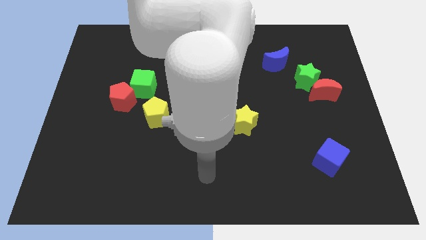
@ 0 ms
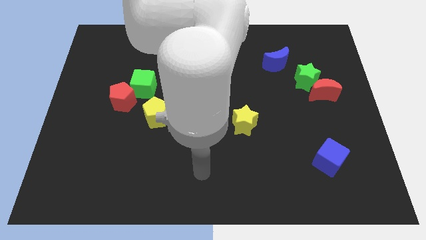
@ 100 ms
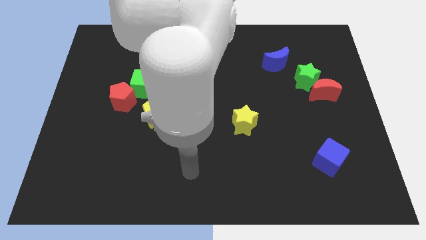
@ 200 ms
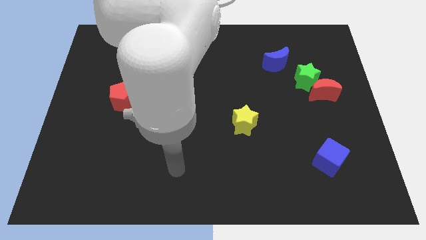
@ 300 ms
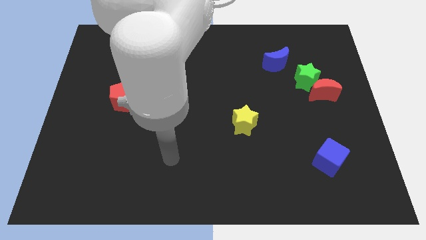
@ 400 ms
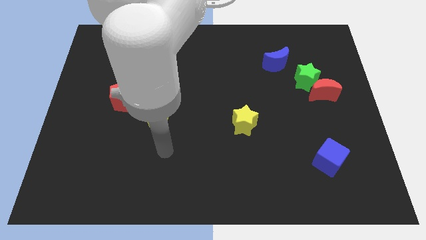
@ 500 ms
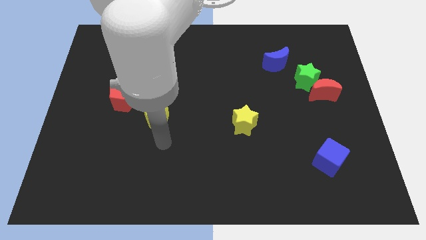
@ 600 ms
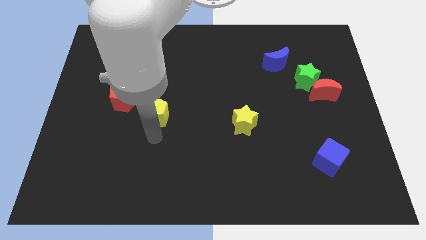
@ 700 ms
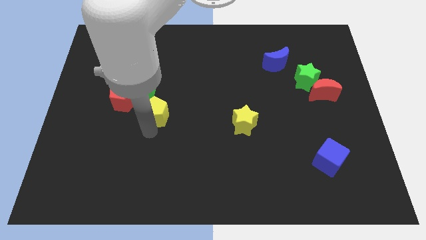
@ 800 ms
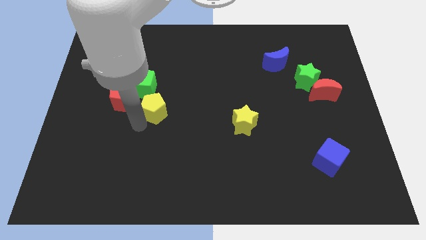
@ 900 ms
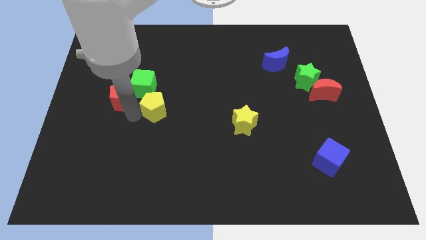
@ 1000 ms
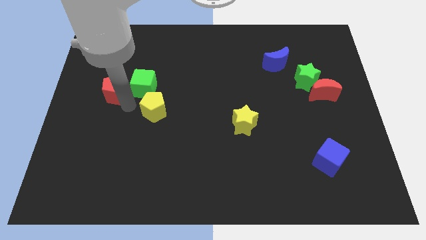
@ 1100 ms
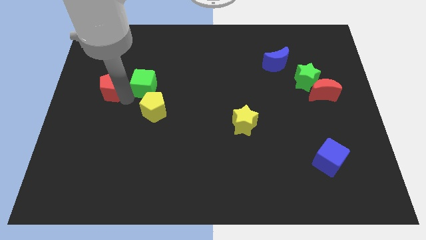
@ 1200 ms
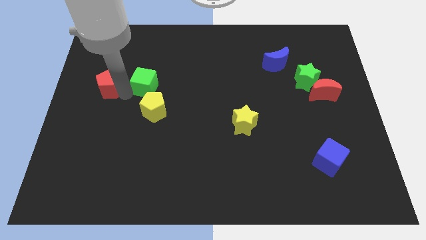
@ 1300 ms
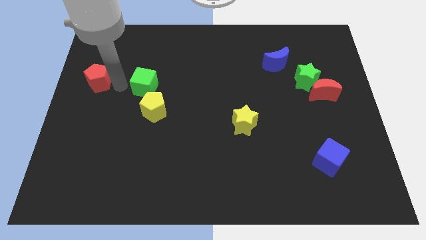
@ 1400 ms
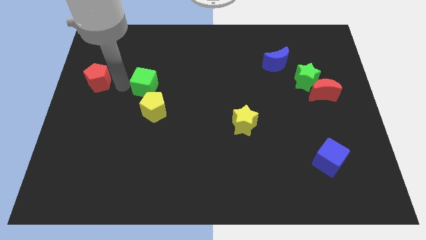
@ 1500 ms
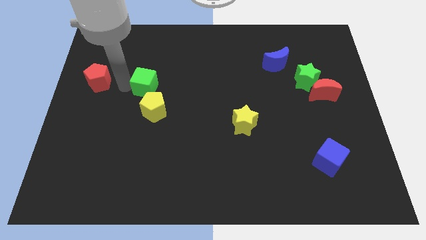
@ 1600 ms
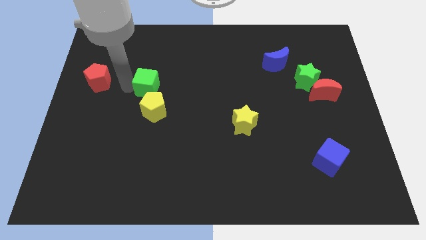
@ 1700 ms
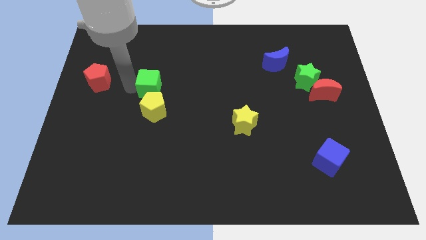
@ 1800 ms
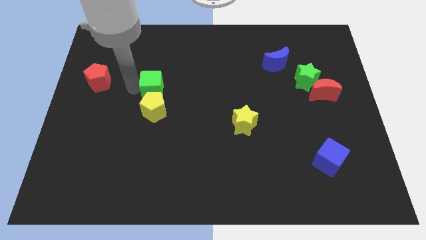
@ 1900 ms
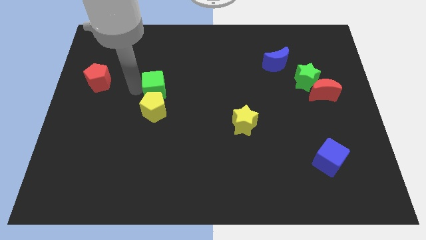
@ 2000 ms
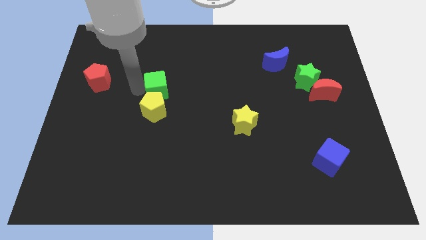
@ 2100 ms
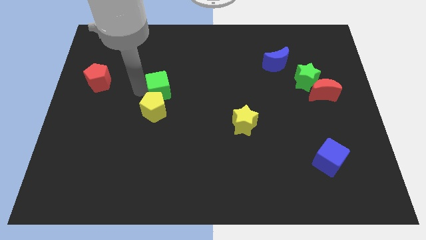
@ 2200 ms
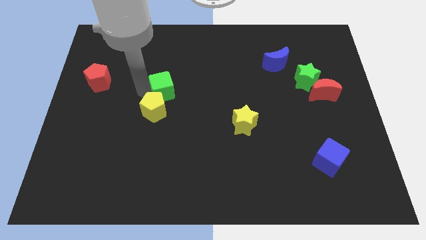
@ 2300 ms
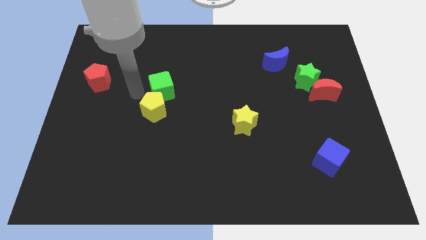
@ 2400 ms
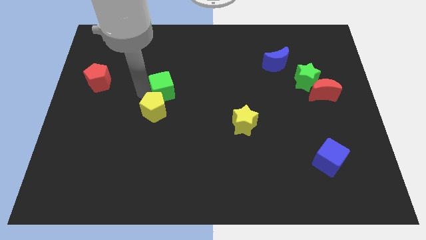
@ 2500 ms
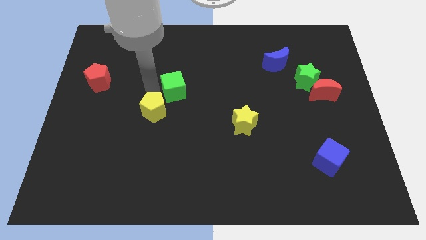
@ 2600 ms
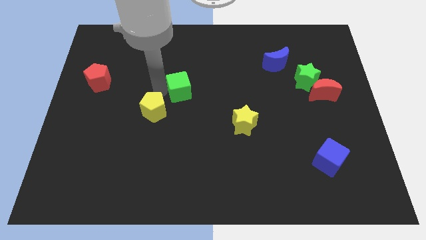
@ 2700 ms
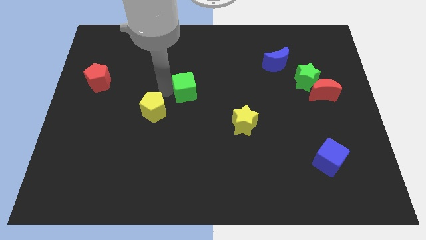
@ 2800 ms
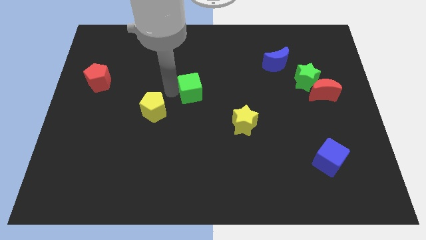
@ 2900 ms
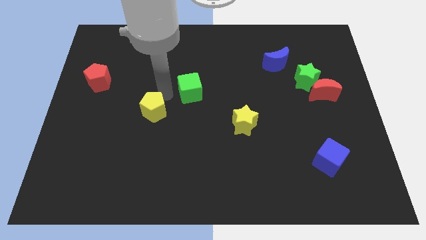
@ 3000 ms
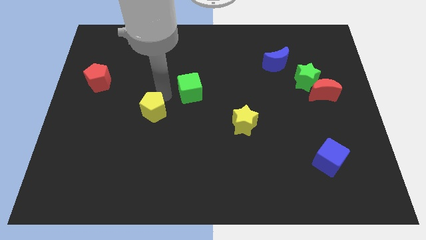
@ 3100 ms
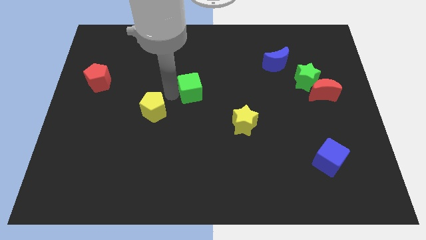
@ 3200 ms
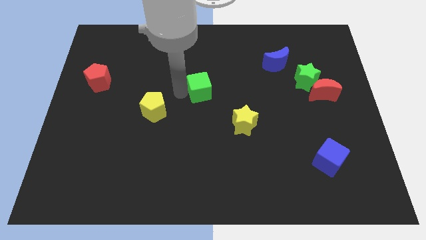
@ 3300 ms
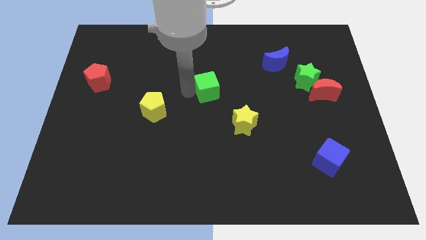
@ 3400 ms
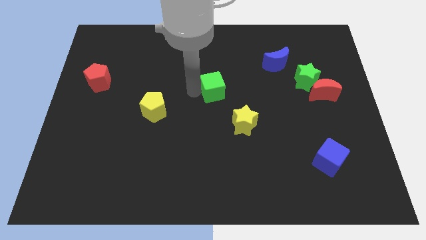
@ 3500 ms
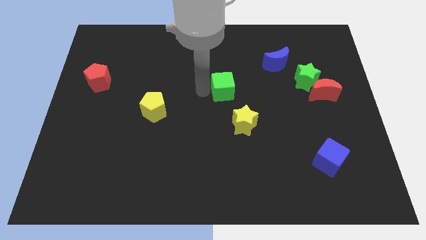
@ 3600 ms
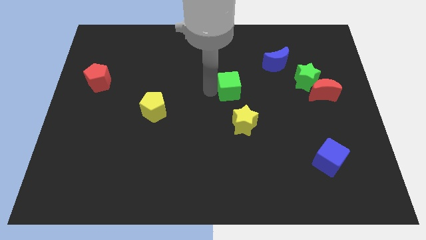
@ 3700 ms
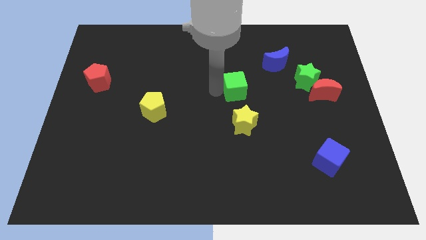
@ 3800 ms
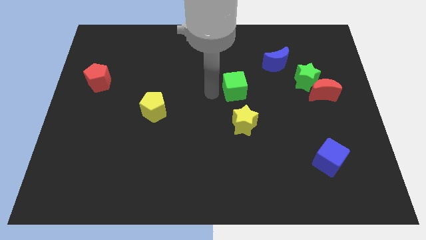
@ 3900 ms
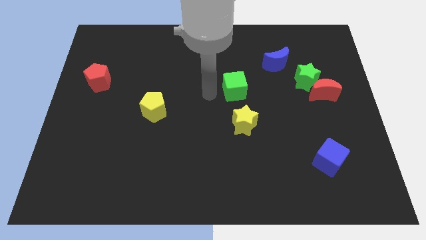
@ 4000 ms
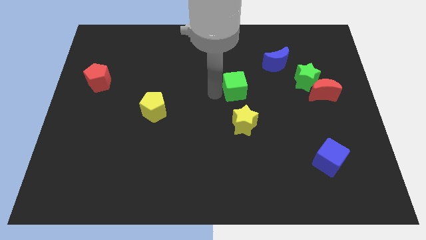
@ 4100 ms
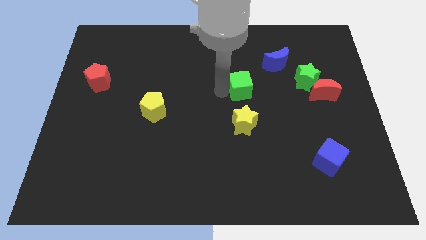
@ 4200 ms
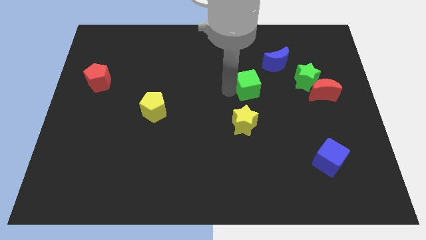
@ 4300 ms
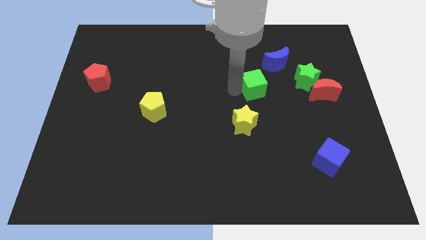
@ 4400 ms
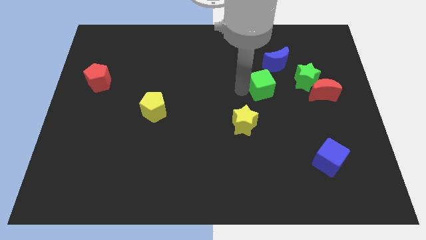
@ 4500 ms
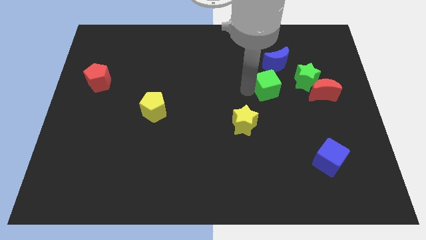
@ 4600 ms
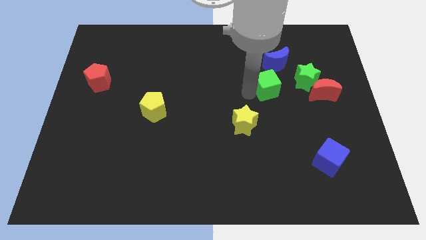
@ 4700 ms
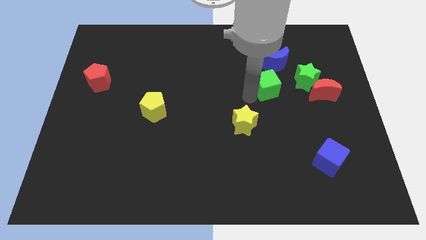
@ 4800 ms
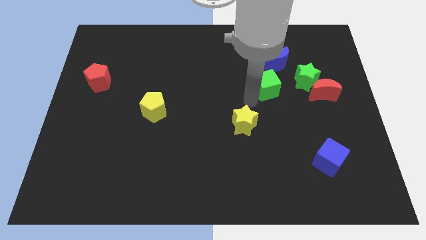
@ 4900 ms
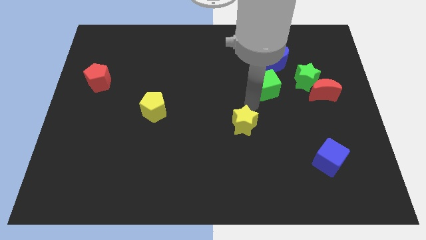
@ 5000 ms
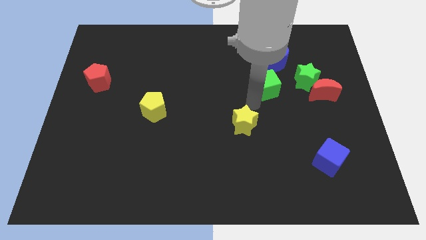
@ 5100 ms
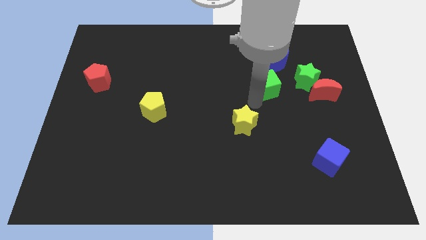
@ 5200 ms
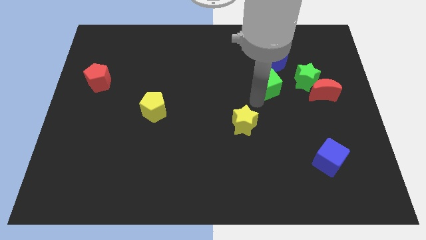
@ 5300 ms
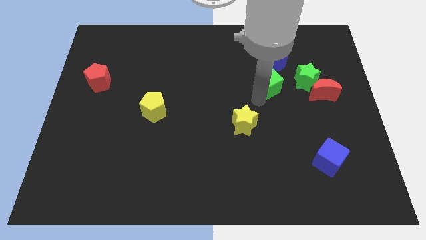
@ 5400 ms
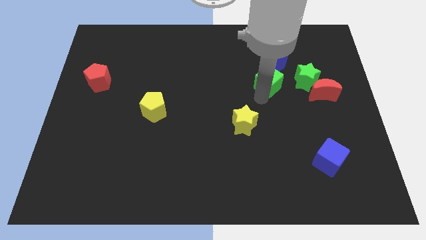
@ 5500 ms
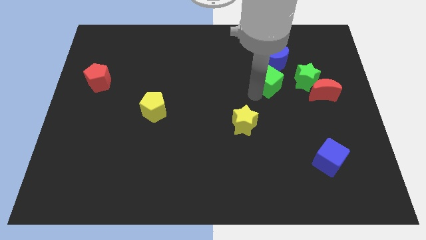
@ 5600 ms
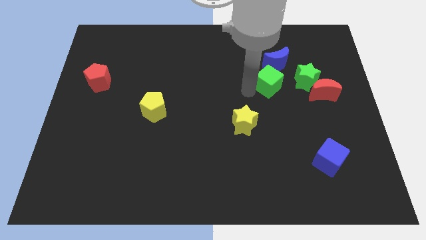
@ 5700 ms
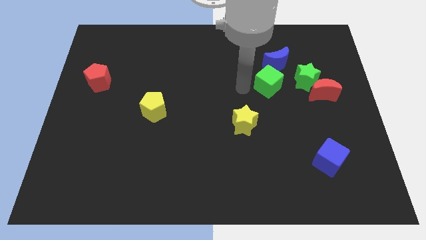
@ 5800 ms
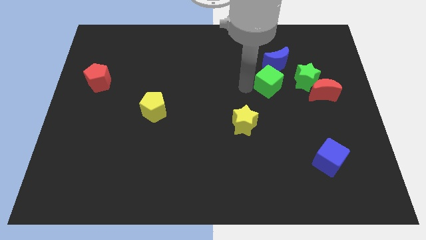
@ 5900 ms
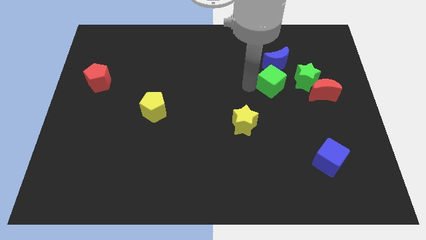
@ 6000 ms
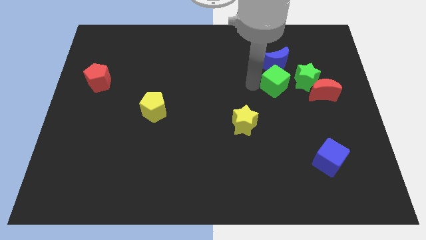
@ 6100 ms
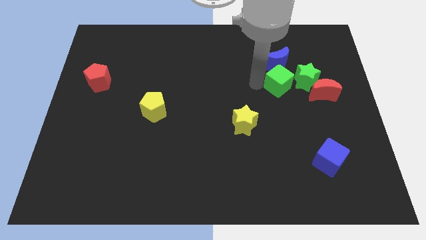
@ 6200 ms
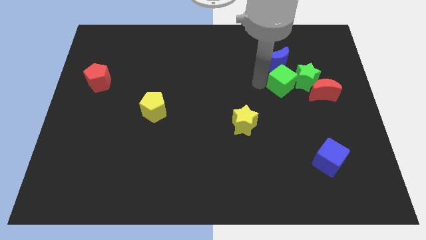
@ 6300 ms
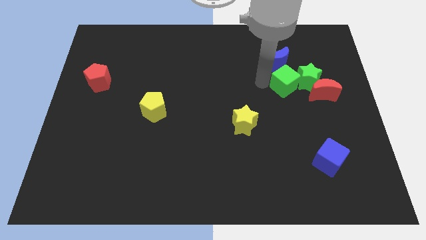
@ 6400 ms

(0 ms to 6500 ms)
slide the green cube towards the green star
